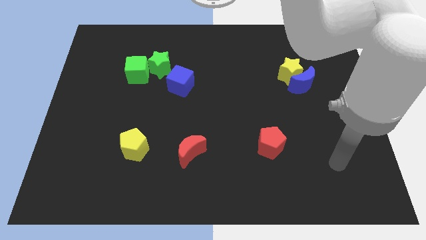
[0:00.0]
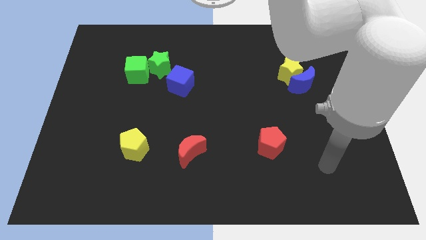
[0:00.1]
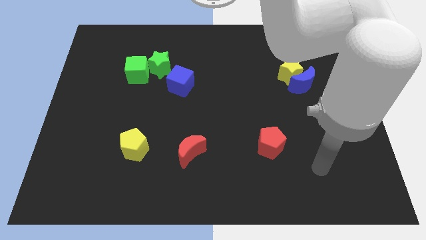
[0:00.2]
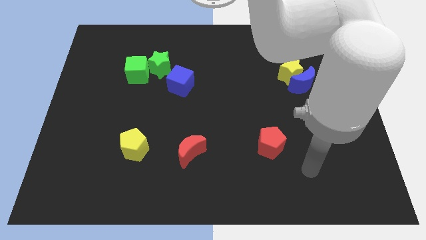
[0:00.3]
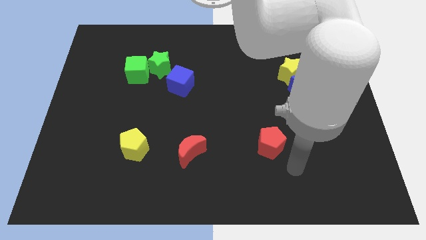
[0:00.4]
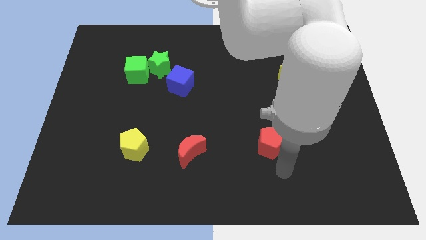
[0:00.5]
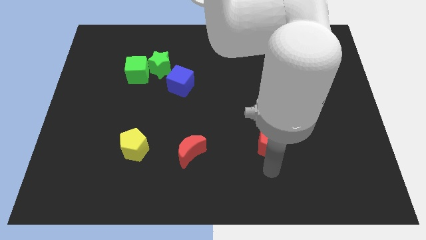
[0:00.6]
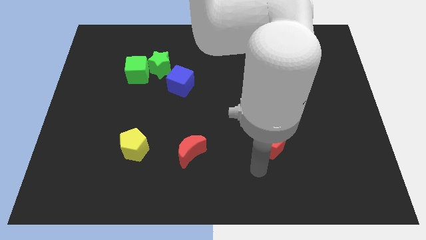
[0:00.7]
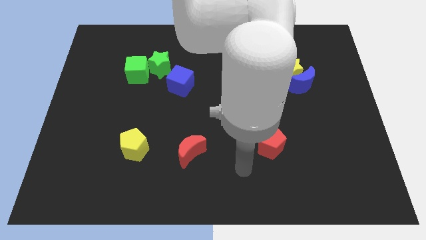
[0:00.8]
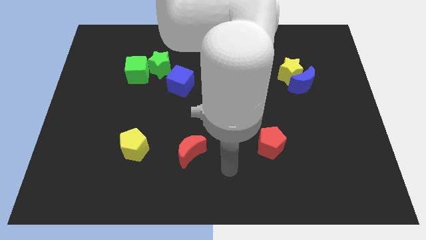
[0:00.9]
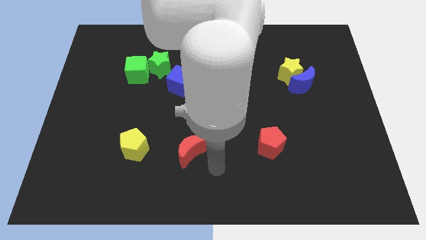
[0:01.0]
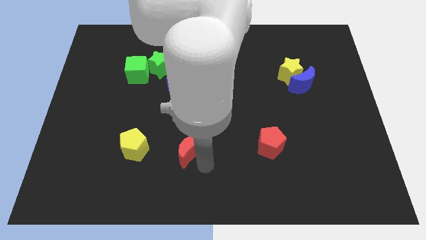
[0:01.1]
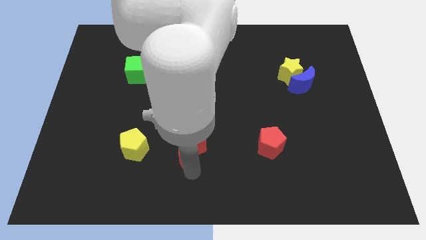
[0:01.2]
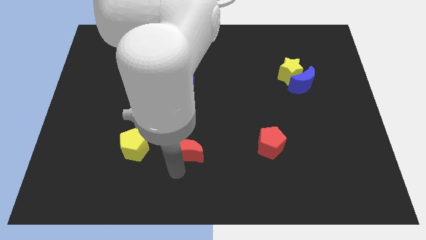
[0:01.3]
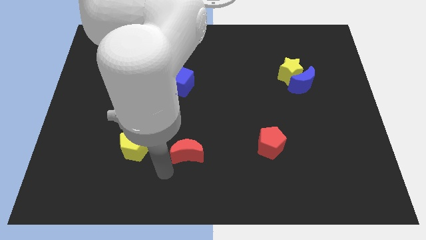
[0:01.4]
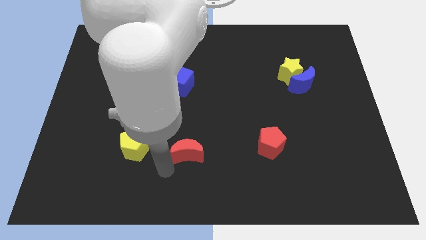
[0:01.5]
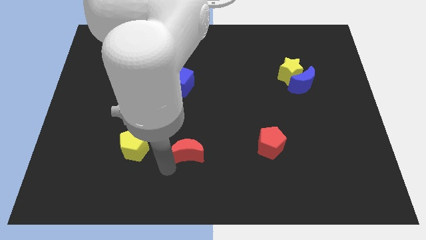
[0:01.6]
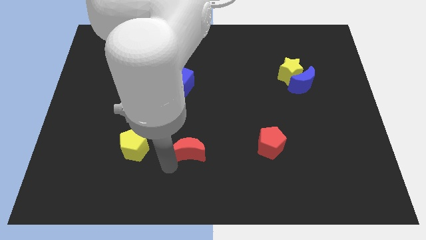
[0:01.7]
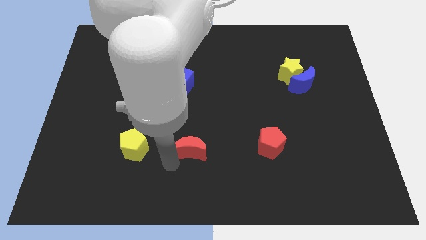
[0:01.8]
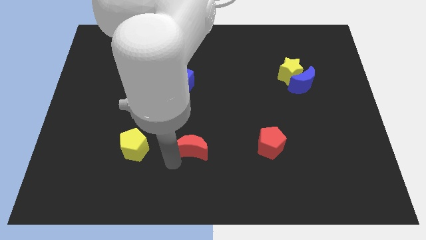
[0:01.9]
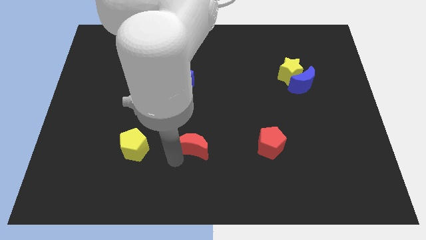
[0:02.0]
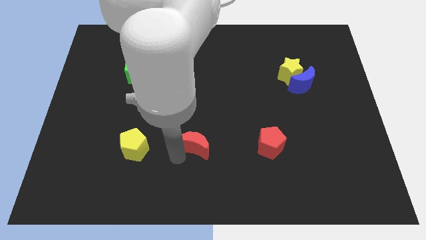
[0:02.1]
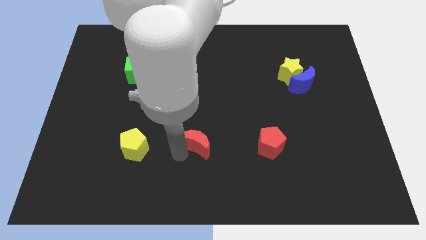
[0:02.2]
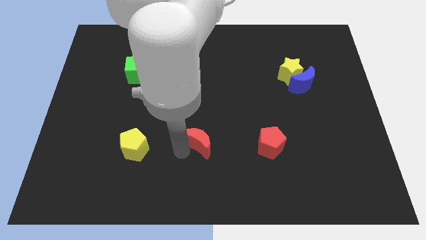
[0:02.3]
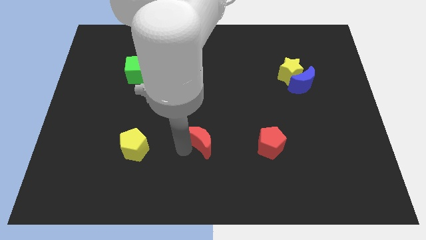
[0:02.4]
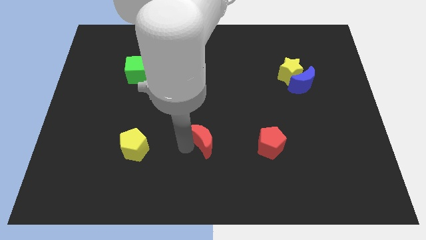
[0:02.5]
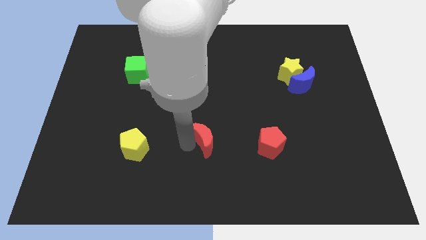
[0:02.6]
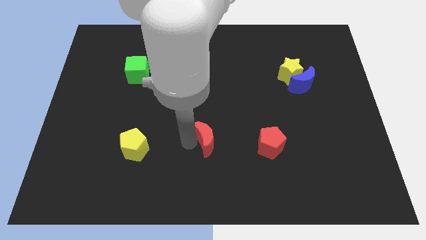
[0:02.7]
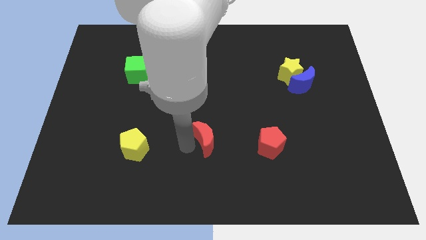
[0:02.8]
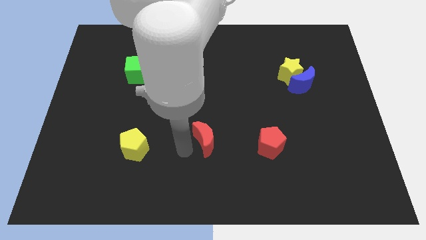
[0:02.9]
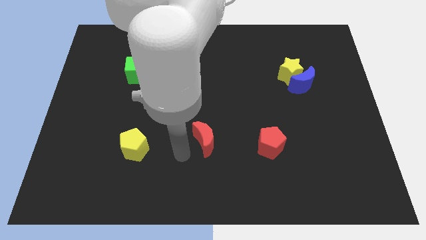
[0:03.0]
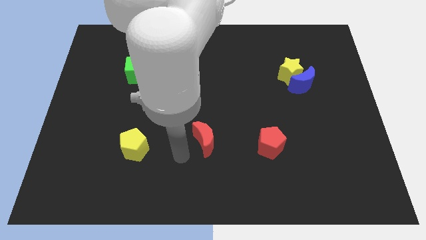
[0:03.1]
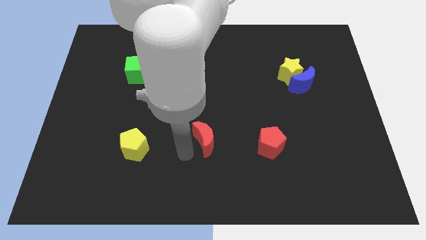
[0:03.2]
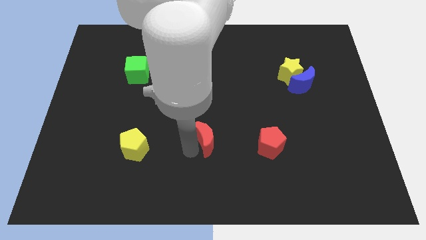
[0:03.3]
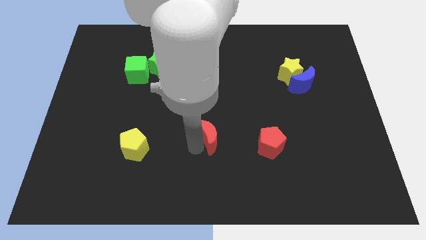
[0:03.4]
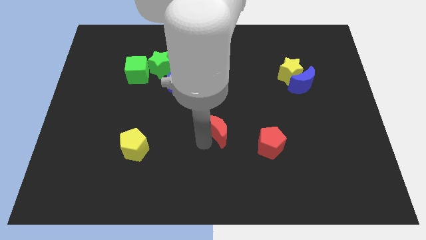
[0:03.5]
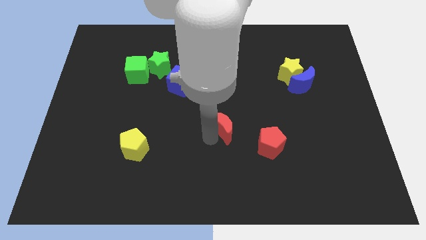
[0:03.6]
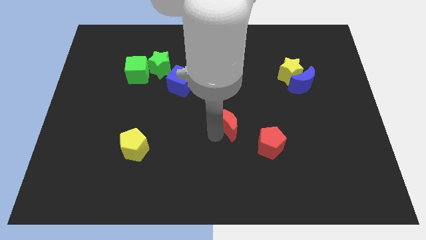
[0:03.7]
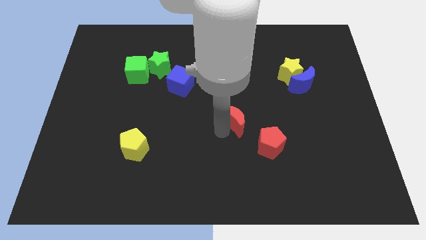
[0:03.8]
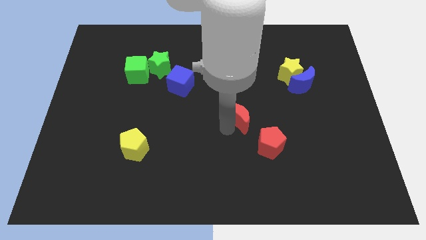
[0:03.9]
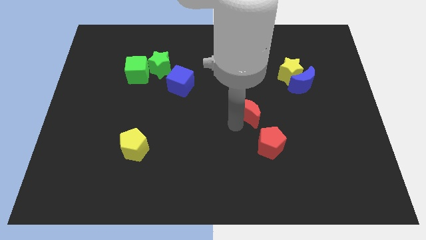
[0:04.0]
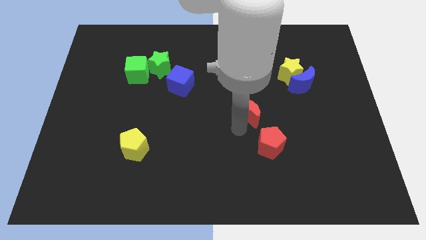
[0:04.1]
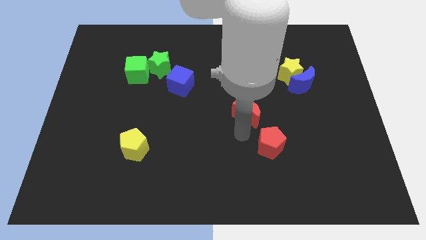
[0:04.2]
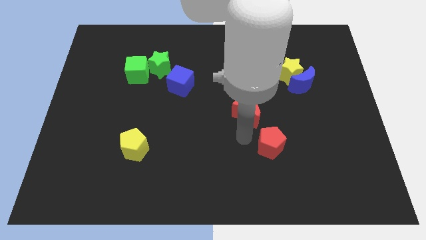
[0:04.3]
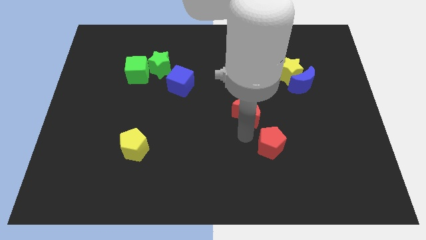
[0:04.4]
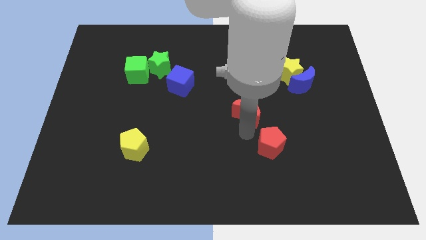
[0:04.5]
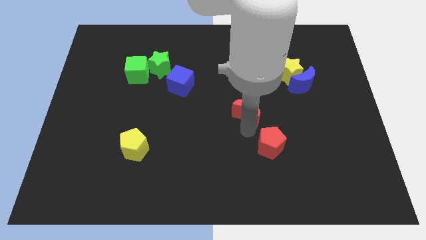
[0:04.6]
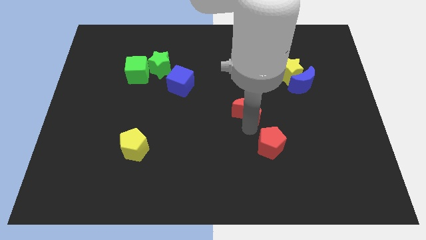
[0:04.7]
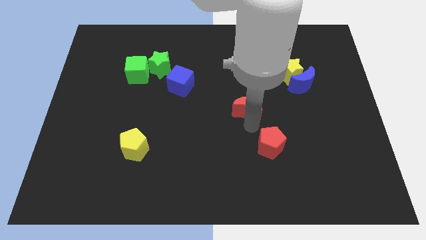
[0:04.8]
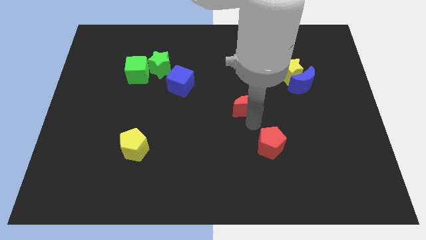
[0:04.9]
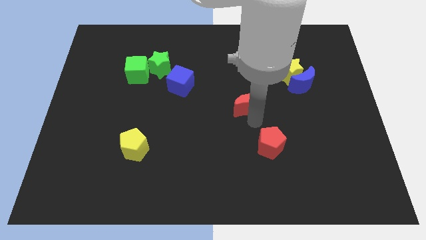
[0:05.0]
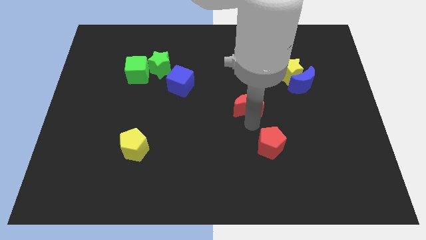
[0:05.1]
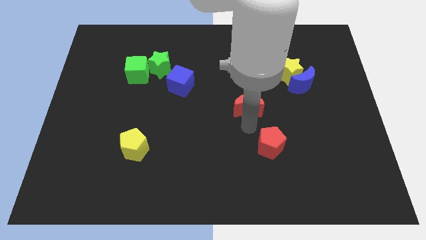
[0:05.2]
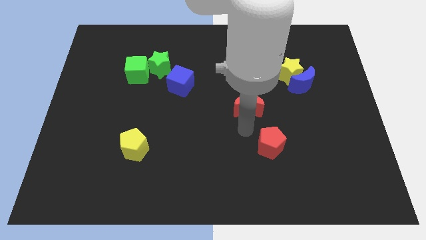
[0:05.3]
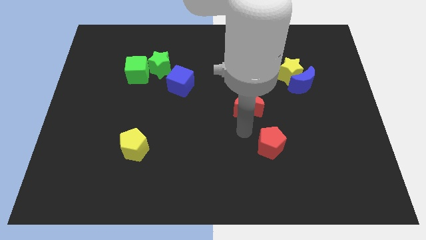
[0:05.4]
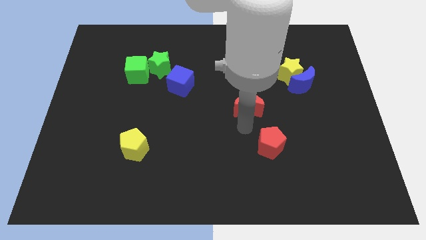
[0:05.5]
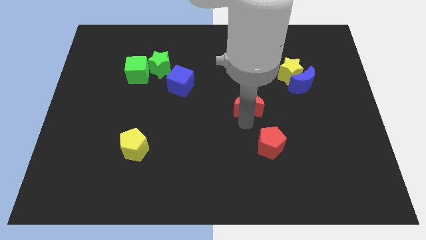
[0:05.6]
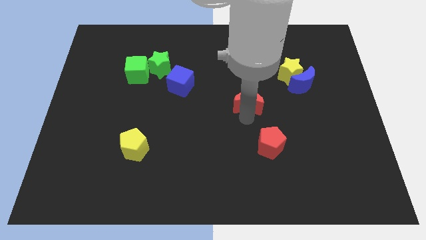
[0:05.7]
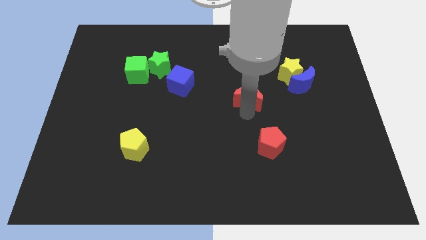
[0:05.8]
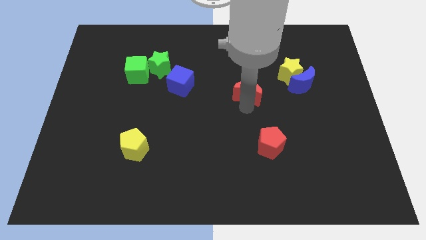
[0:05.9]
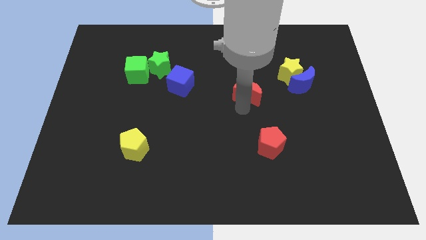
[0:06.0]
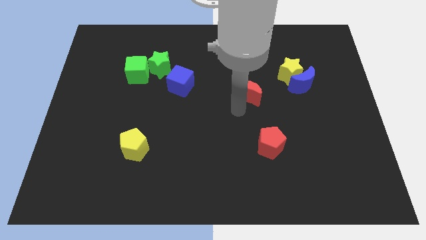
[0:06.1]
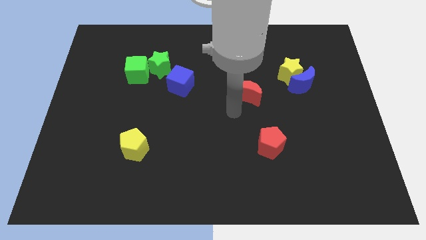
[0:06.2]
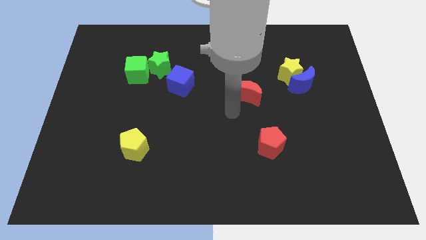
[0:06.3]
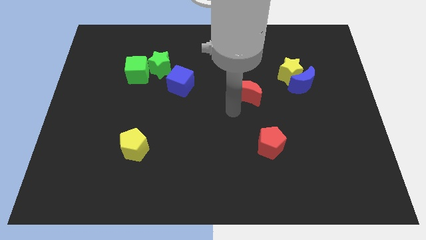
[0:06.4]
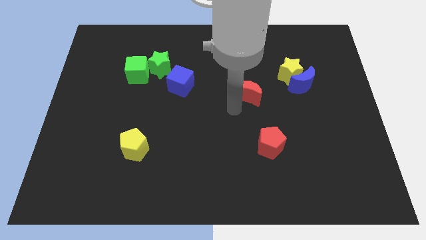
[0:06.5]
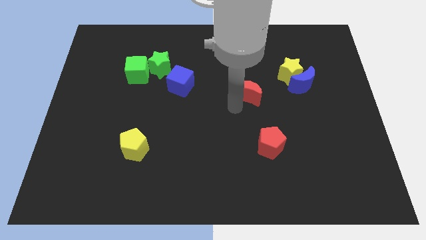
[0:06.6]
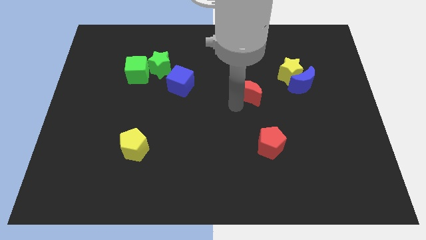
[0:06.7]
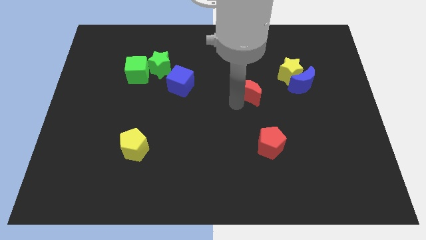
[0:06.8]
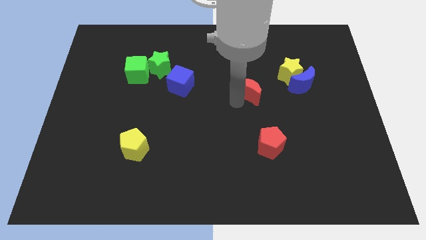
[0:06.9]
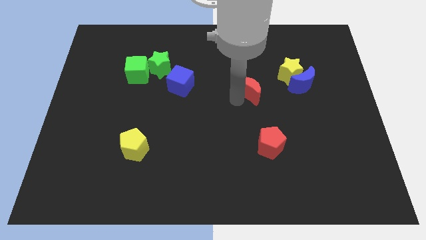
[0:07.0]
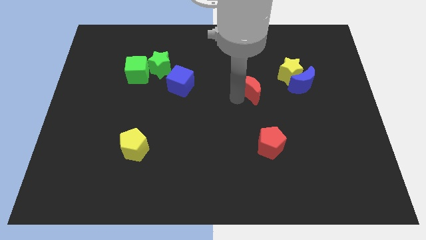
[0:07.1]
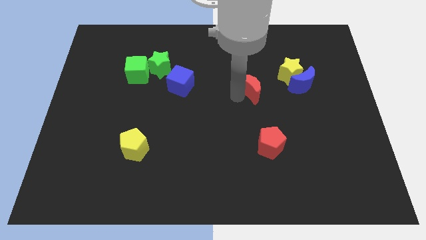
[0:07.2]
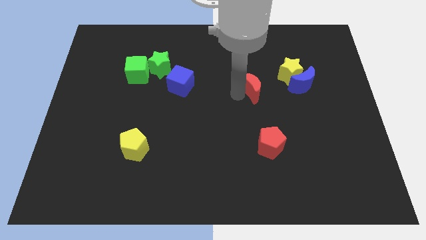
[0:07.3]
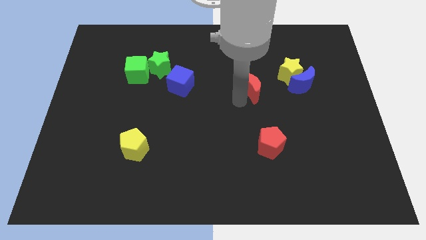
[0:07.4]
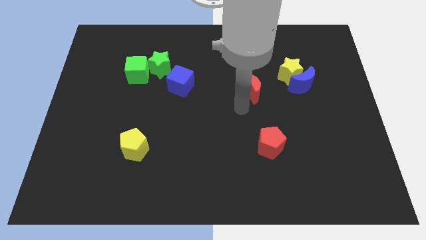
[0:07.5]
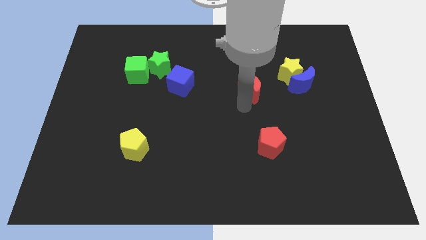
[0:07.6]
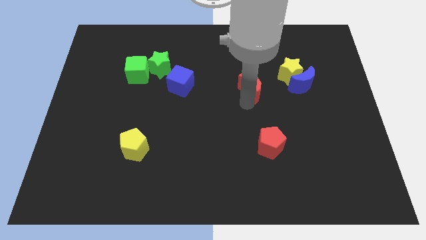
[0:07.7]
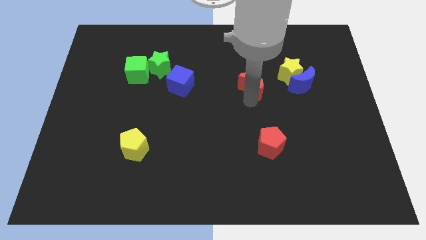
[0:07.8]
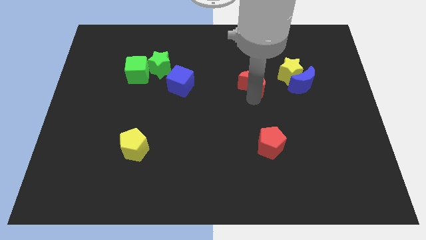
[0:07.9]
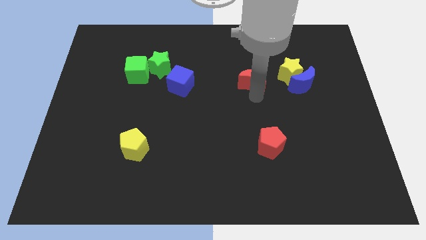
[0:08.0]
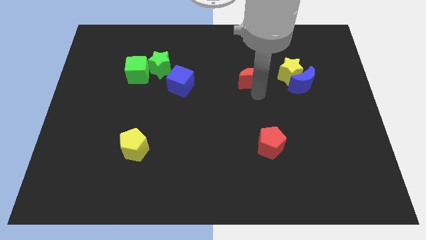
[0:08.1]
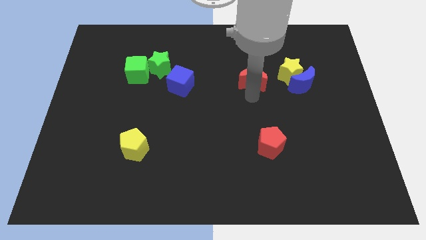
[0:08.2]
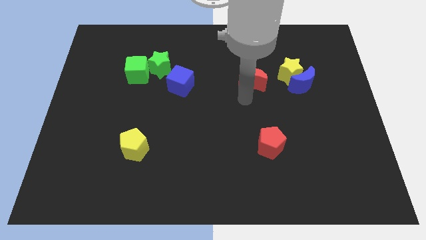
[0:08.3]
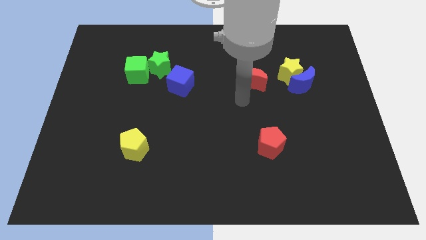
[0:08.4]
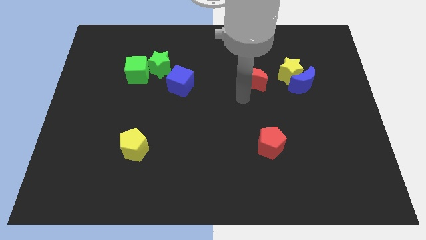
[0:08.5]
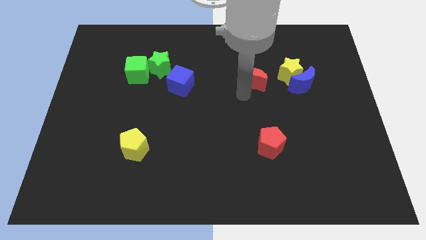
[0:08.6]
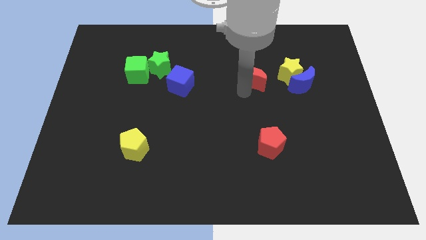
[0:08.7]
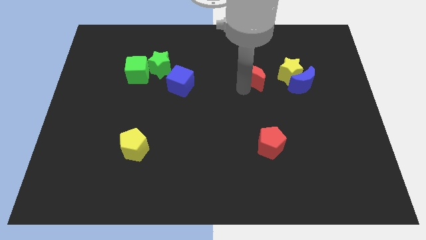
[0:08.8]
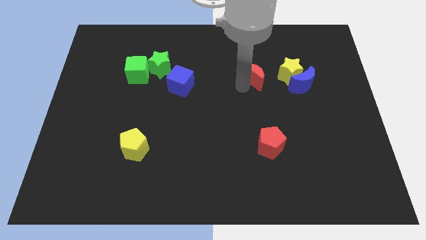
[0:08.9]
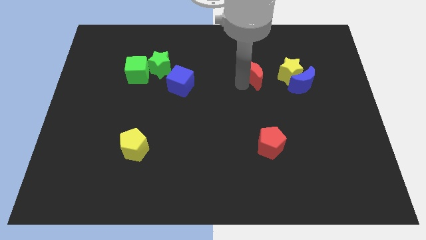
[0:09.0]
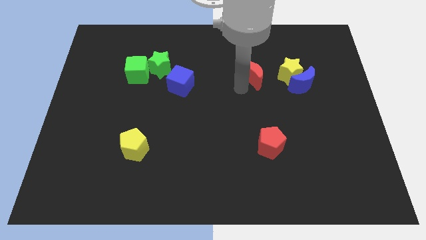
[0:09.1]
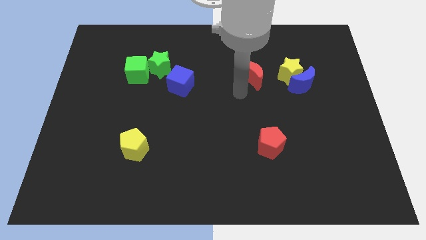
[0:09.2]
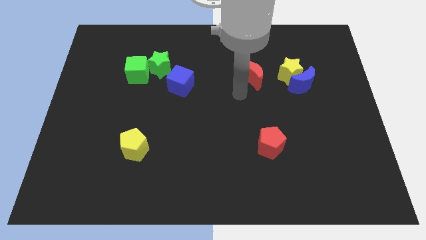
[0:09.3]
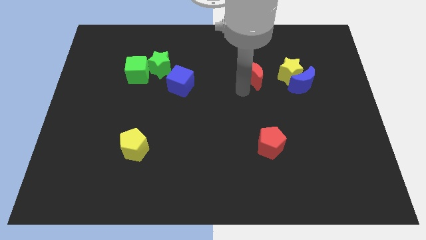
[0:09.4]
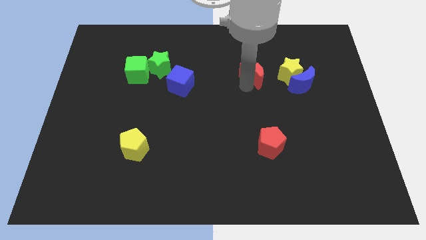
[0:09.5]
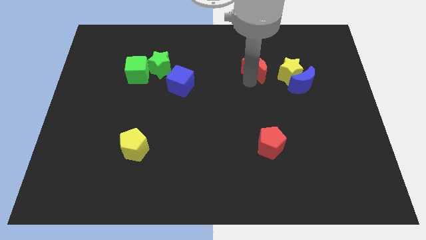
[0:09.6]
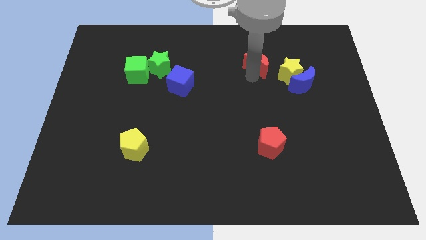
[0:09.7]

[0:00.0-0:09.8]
slide the red moon to the top left of the yellow star
